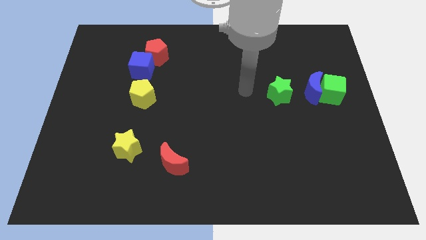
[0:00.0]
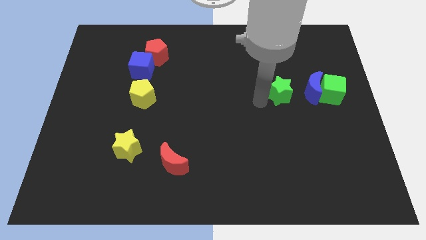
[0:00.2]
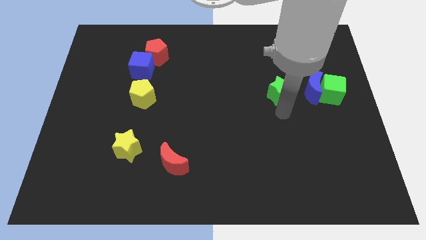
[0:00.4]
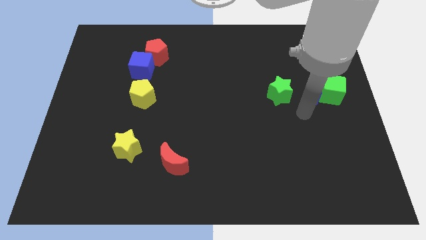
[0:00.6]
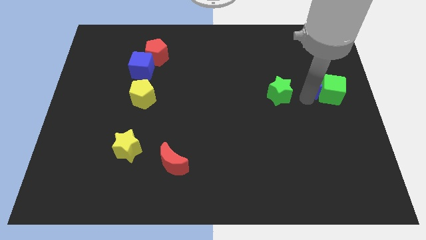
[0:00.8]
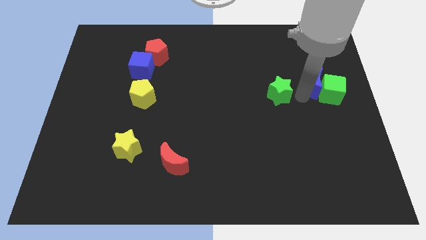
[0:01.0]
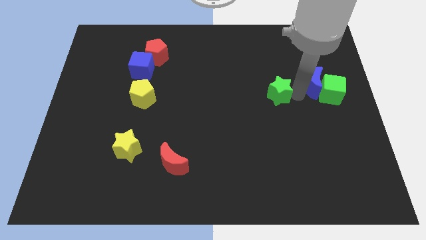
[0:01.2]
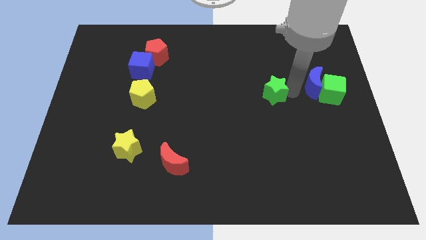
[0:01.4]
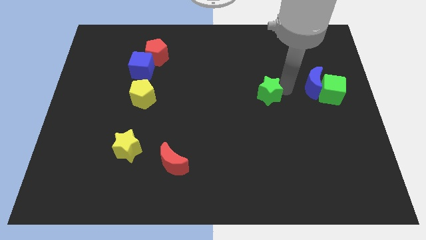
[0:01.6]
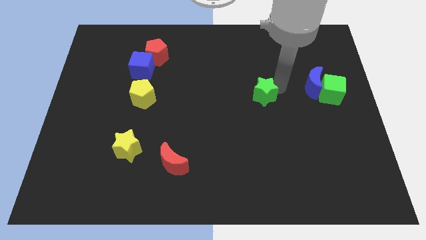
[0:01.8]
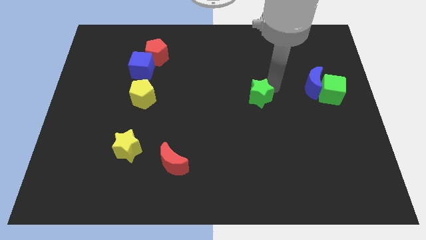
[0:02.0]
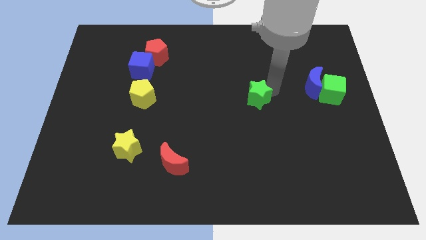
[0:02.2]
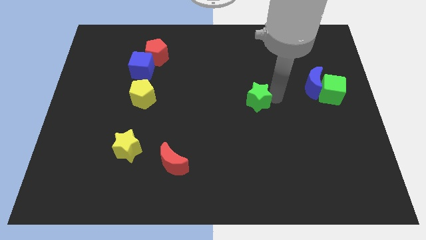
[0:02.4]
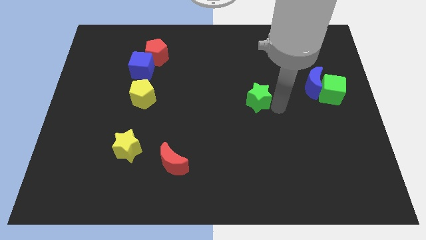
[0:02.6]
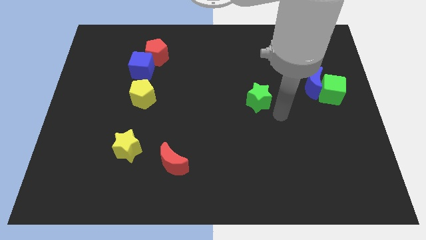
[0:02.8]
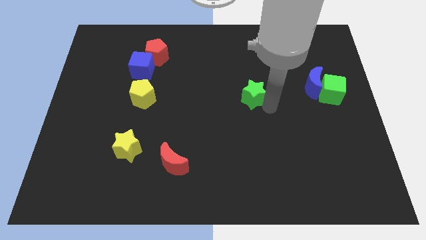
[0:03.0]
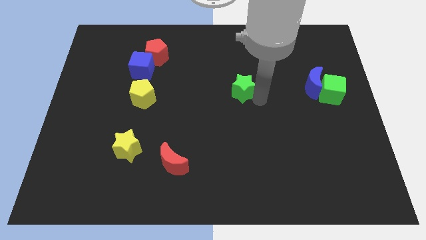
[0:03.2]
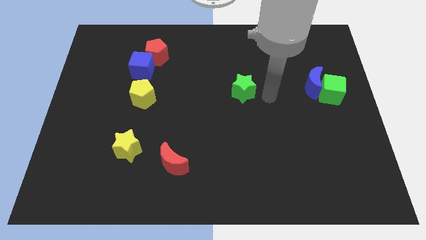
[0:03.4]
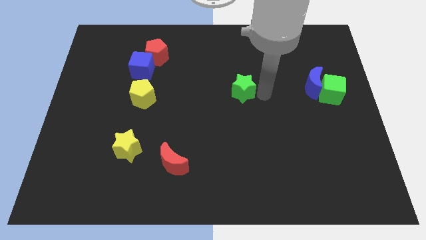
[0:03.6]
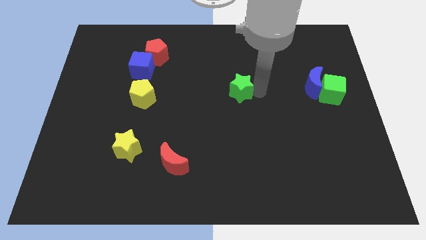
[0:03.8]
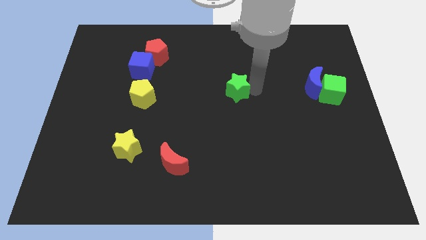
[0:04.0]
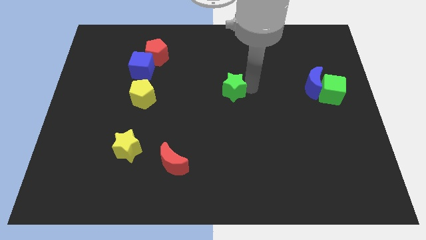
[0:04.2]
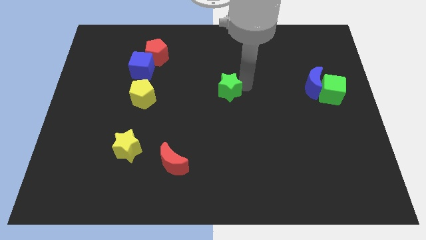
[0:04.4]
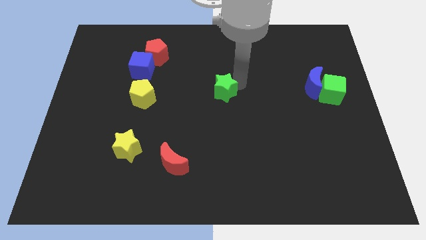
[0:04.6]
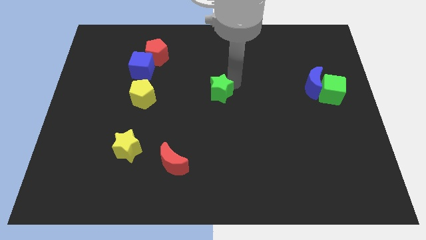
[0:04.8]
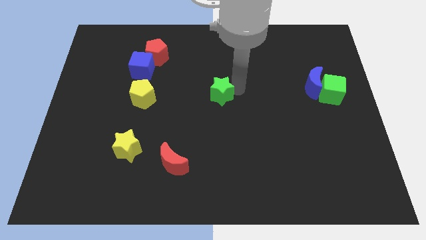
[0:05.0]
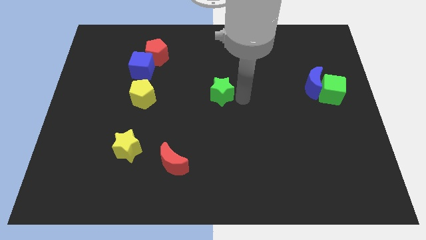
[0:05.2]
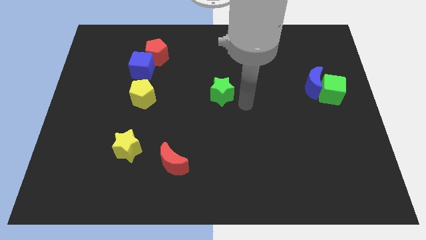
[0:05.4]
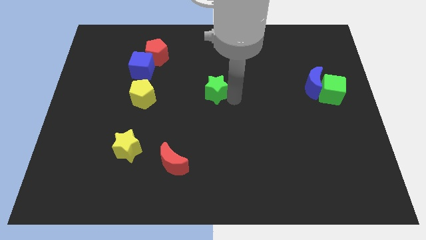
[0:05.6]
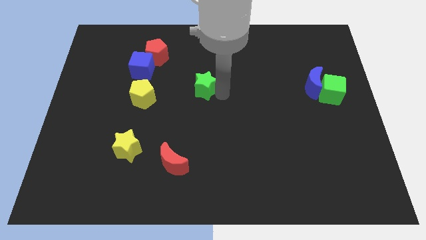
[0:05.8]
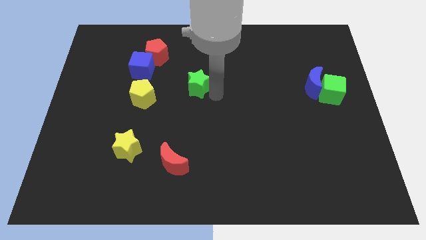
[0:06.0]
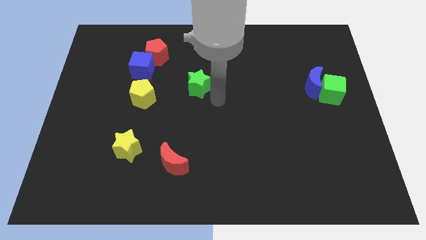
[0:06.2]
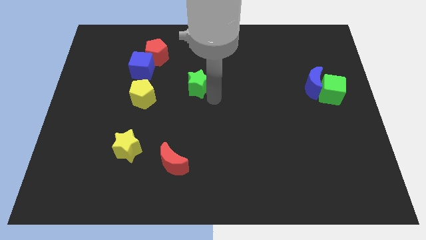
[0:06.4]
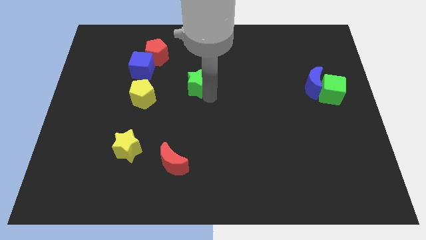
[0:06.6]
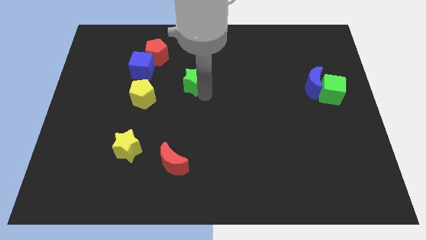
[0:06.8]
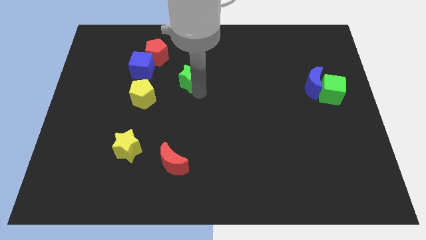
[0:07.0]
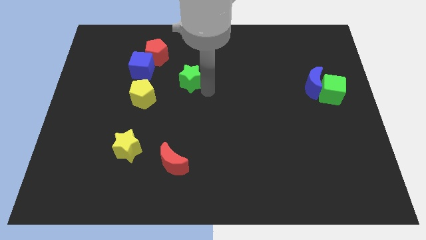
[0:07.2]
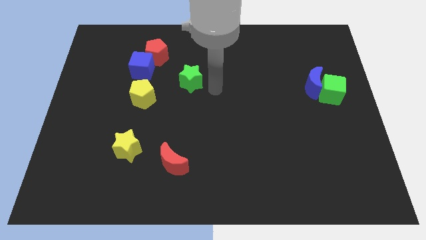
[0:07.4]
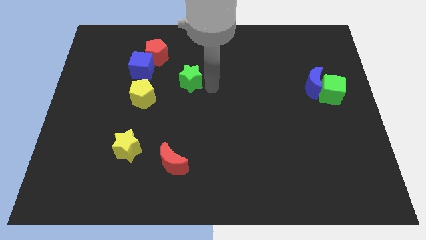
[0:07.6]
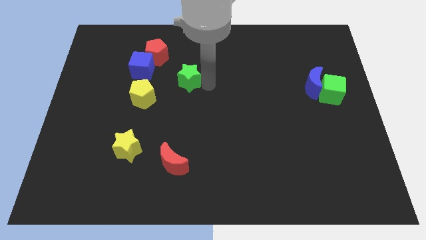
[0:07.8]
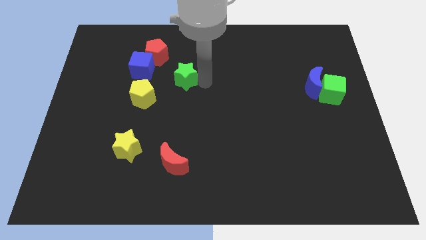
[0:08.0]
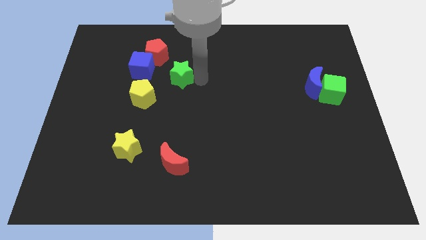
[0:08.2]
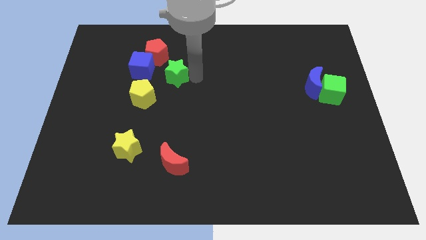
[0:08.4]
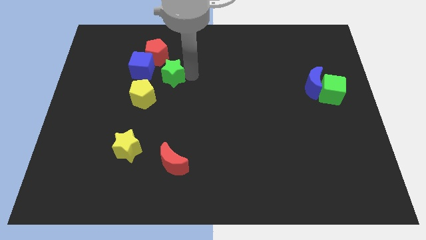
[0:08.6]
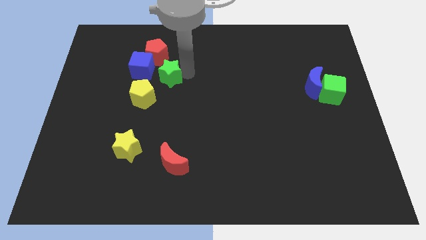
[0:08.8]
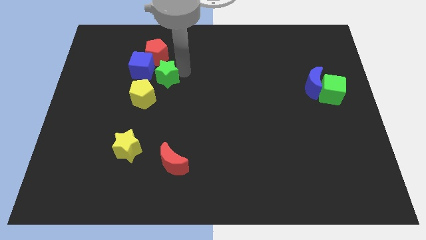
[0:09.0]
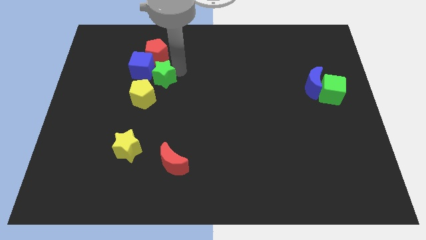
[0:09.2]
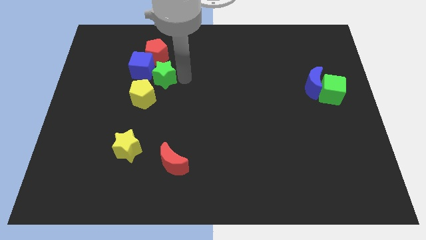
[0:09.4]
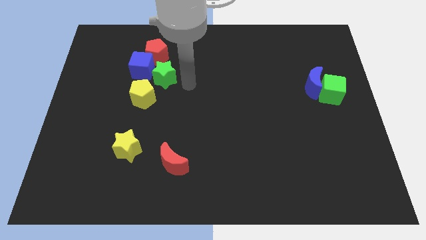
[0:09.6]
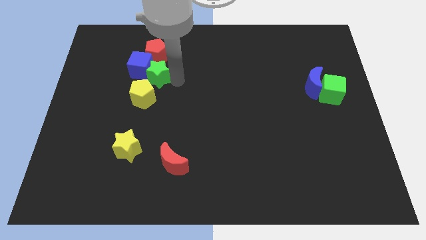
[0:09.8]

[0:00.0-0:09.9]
move the green star to the blue cube

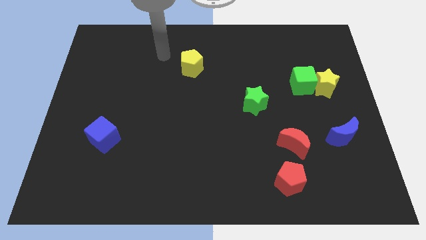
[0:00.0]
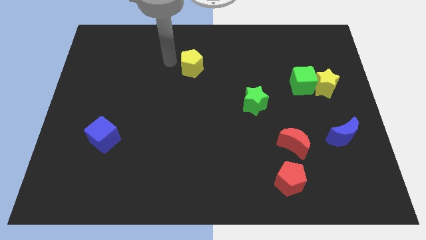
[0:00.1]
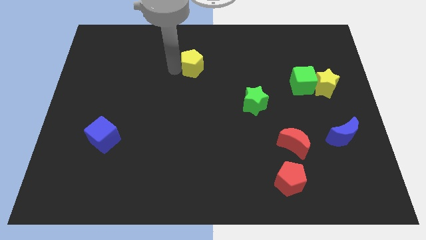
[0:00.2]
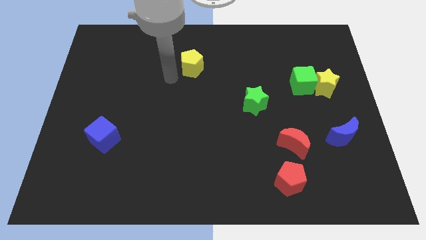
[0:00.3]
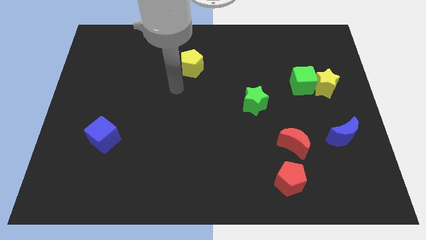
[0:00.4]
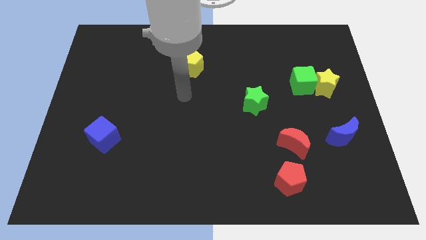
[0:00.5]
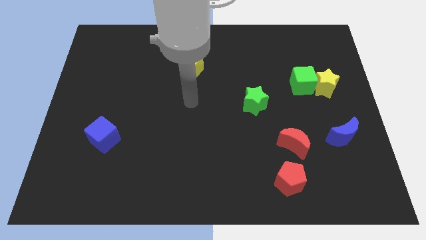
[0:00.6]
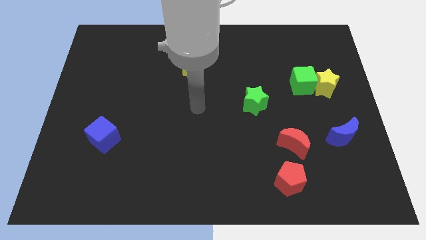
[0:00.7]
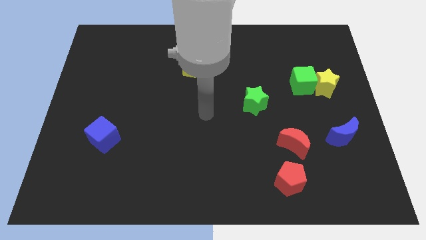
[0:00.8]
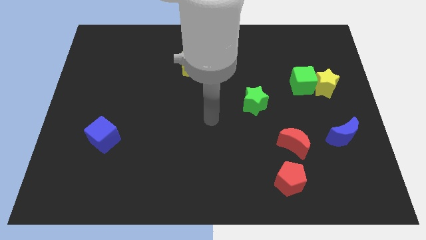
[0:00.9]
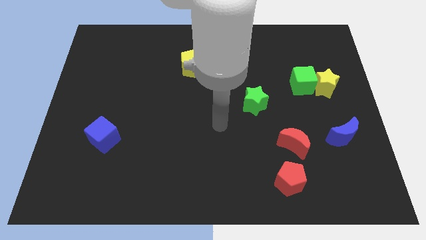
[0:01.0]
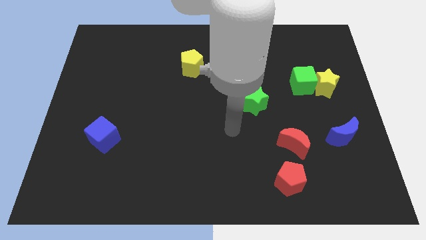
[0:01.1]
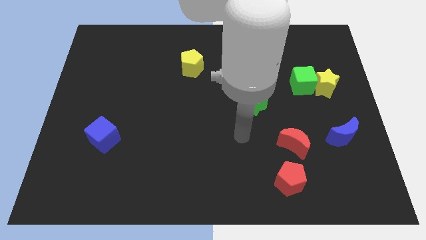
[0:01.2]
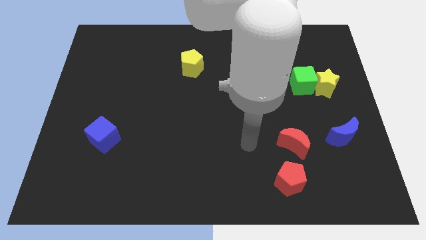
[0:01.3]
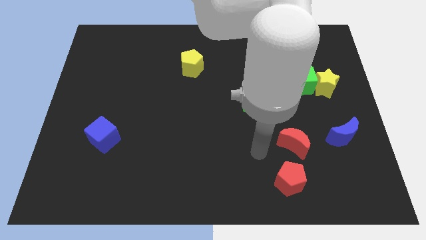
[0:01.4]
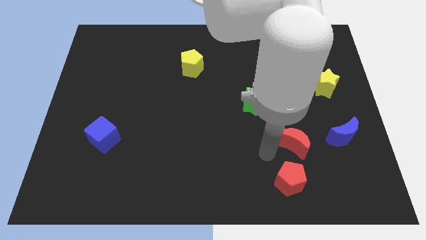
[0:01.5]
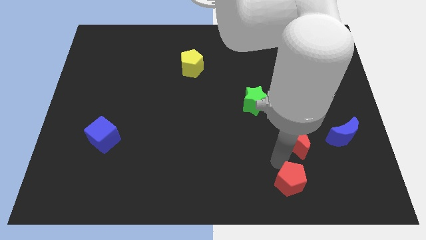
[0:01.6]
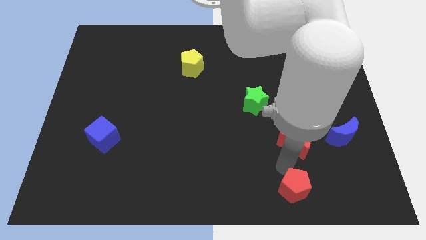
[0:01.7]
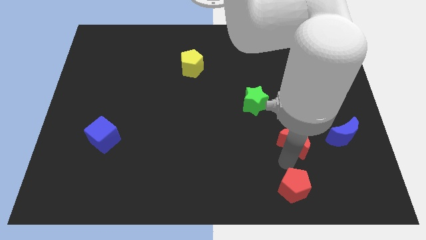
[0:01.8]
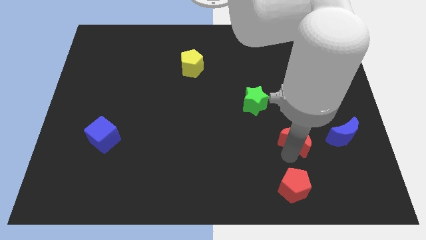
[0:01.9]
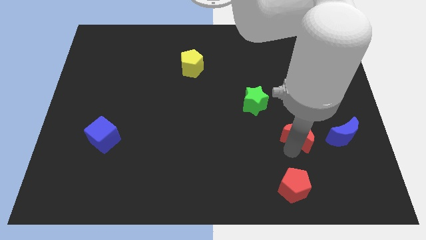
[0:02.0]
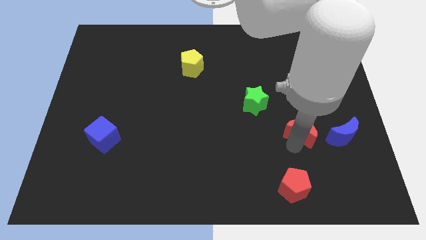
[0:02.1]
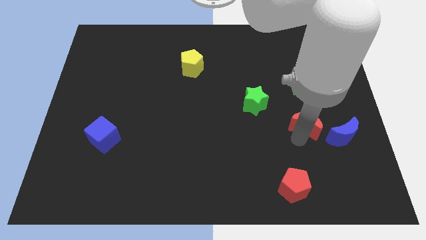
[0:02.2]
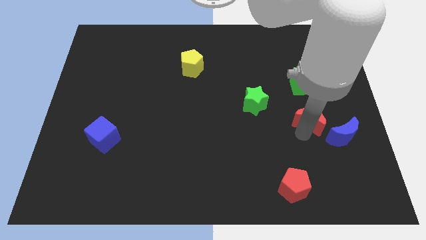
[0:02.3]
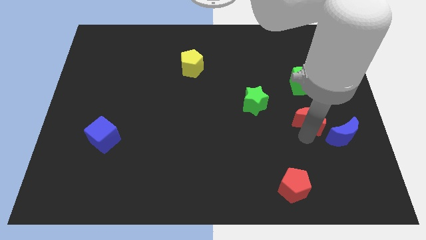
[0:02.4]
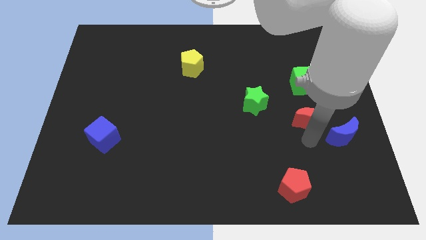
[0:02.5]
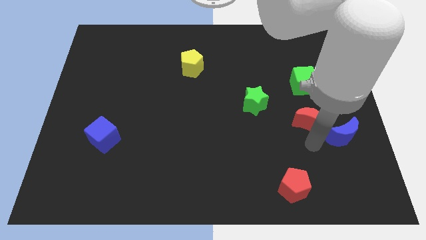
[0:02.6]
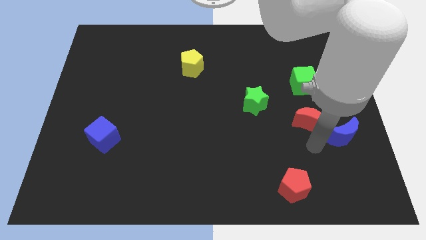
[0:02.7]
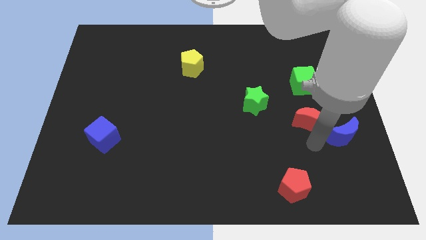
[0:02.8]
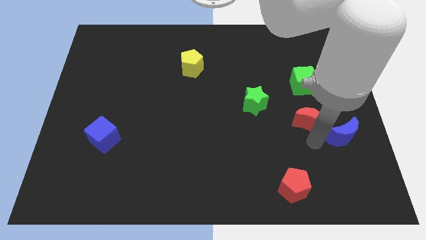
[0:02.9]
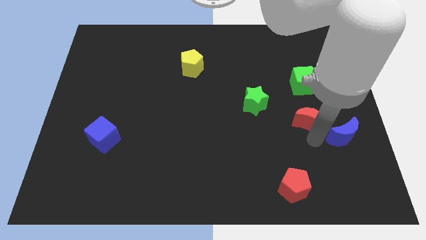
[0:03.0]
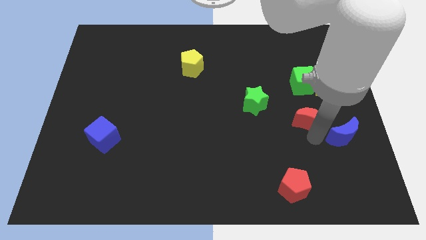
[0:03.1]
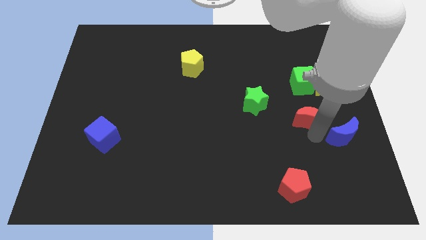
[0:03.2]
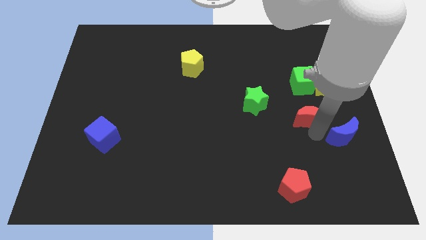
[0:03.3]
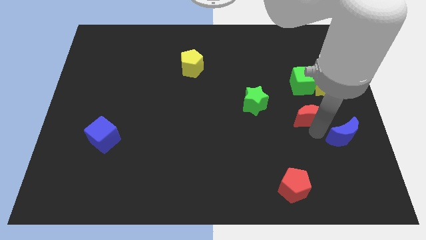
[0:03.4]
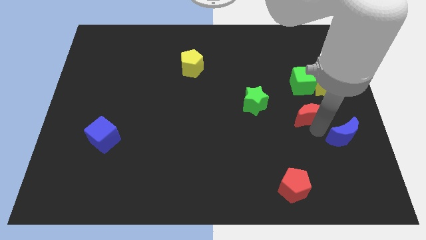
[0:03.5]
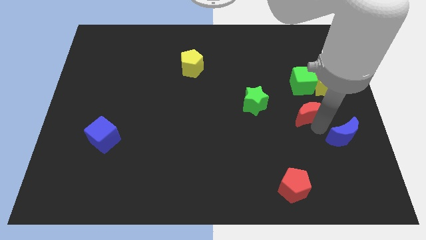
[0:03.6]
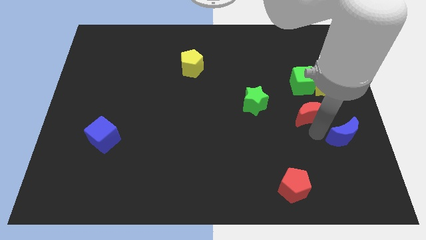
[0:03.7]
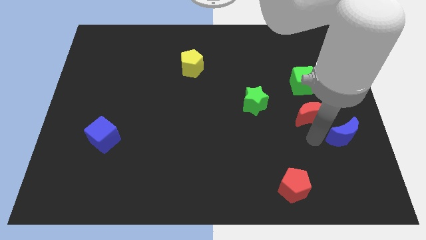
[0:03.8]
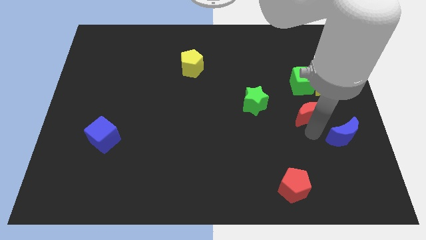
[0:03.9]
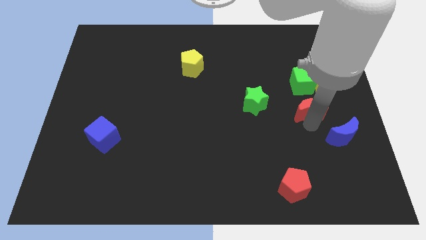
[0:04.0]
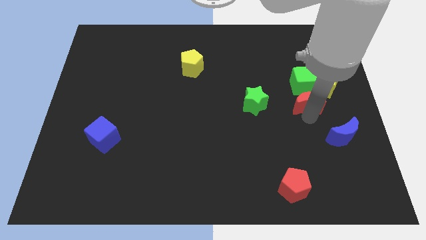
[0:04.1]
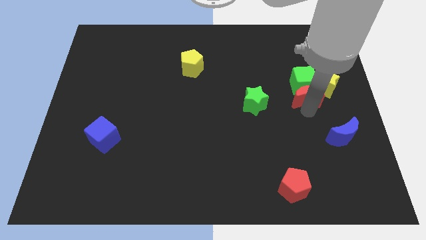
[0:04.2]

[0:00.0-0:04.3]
slide the red moon towards the green cube
